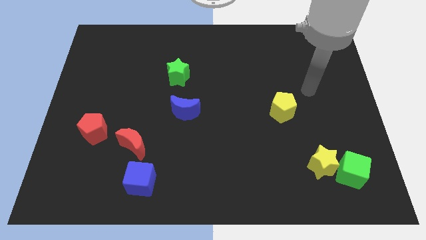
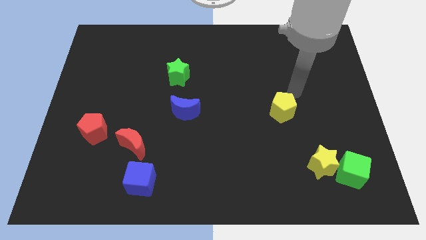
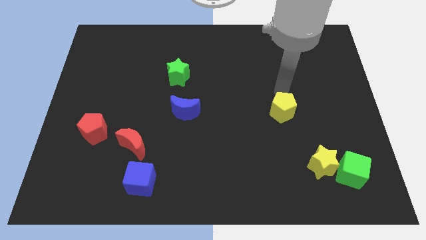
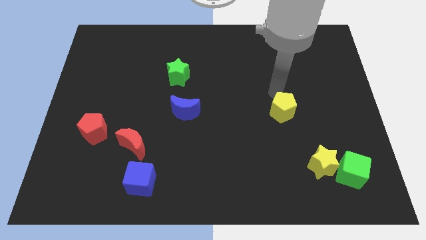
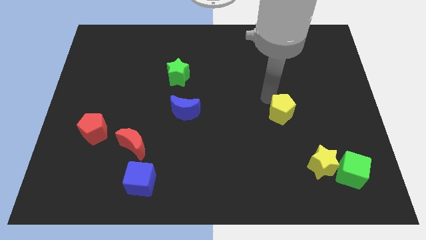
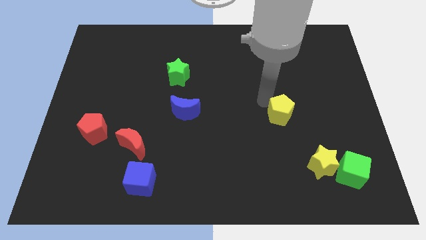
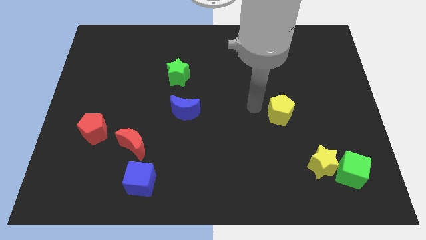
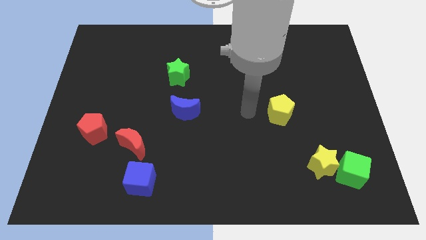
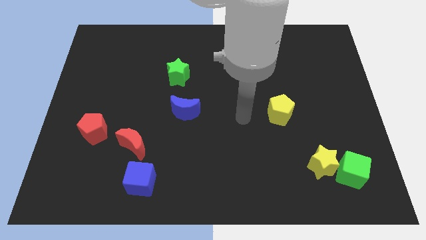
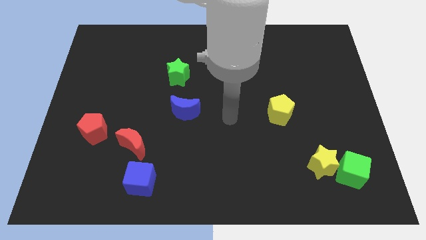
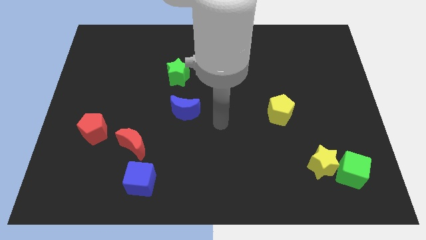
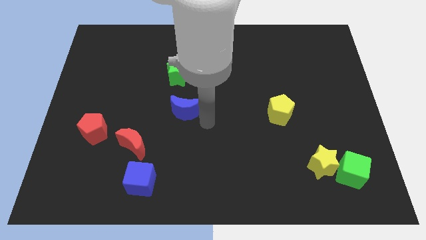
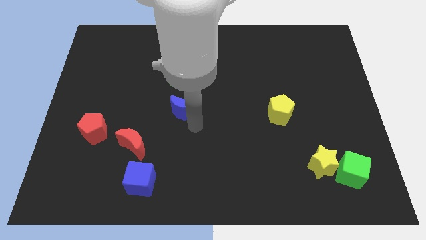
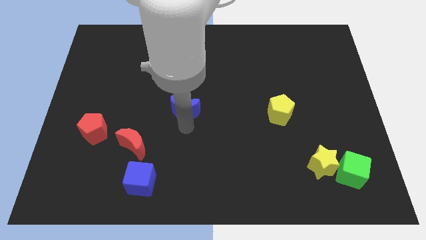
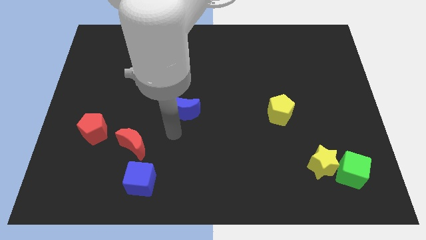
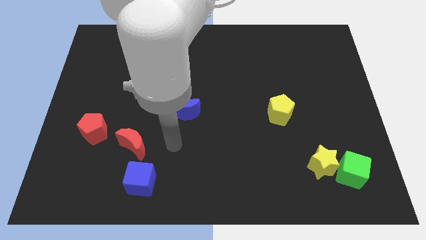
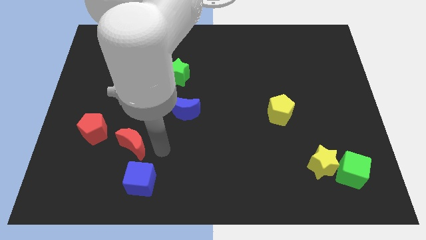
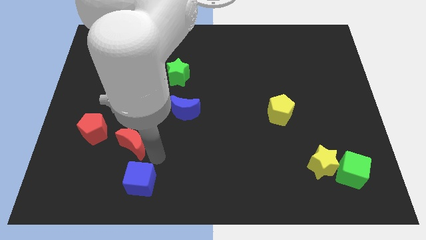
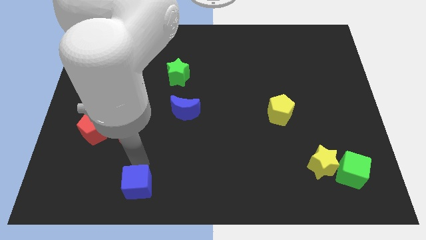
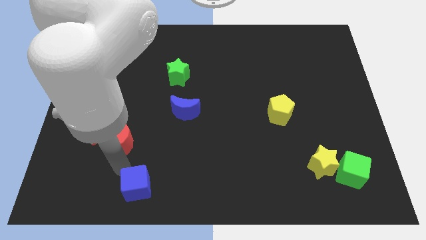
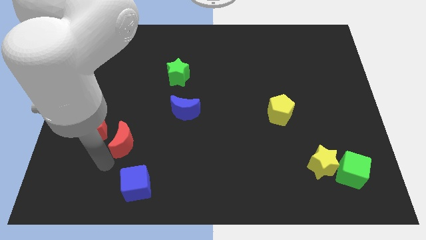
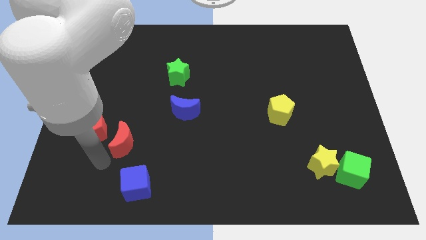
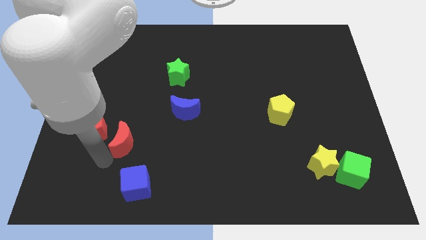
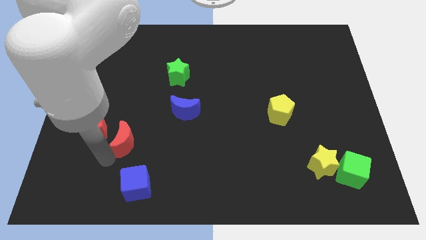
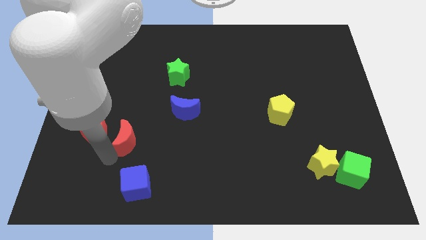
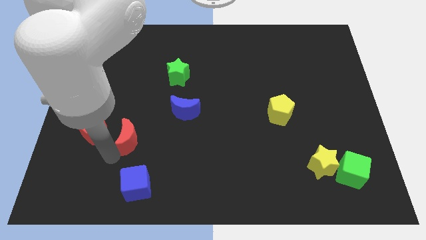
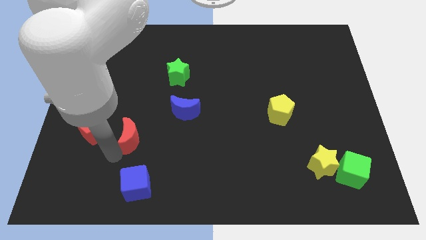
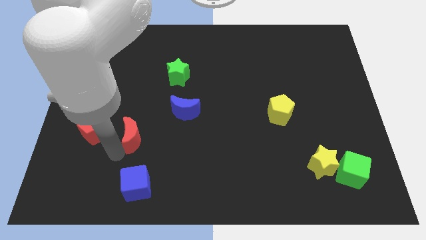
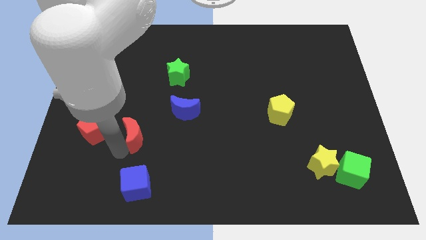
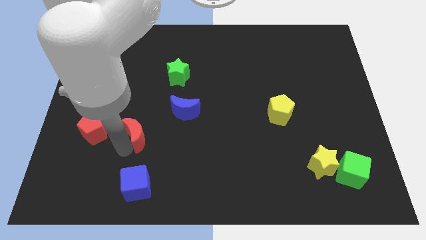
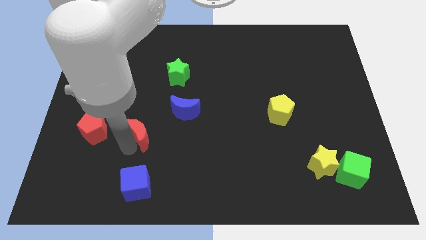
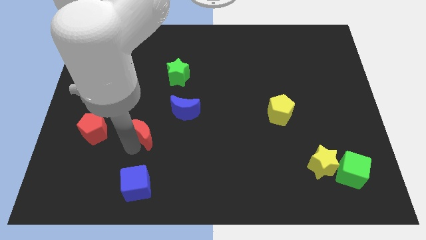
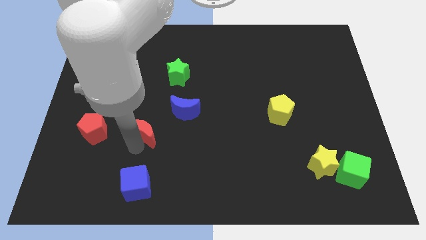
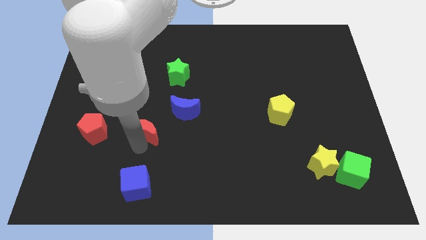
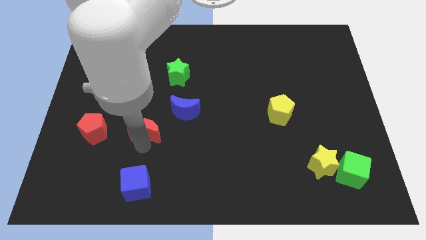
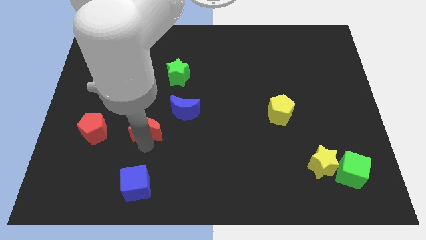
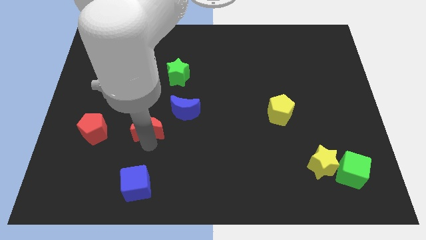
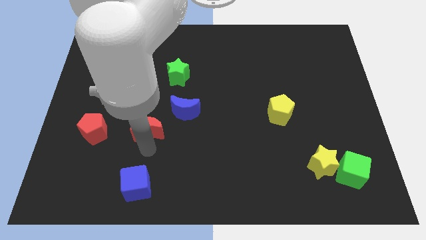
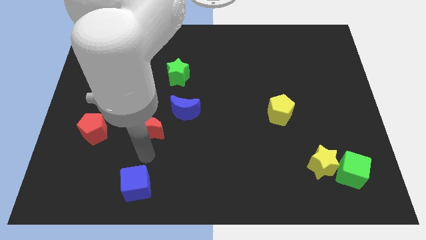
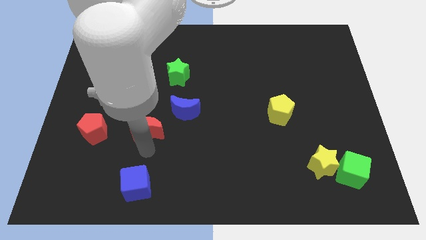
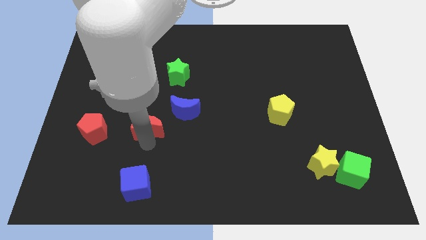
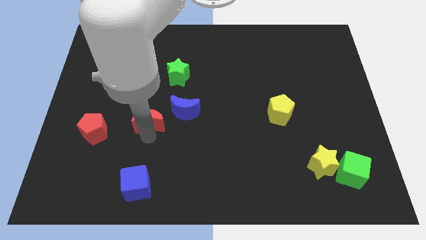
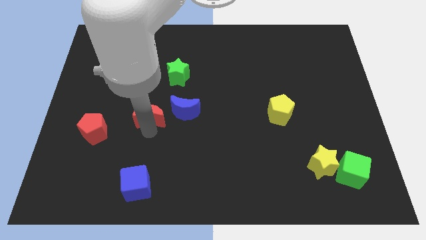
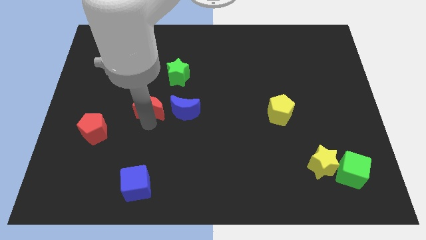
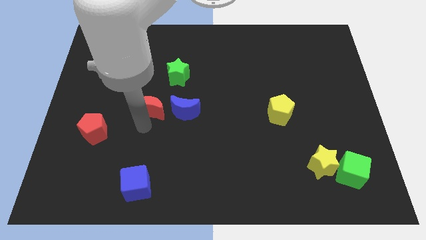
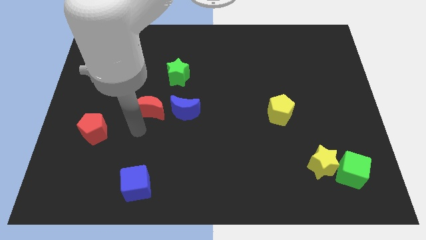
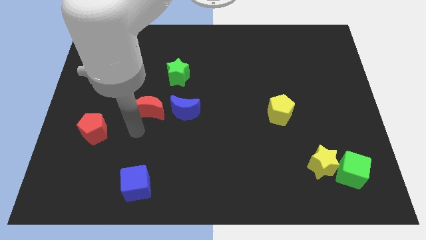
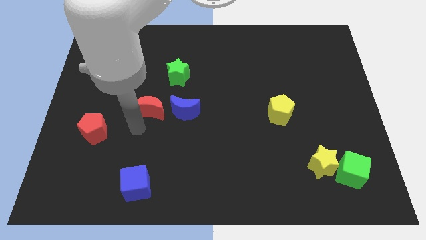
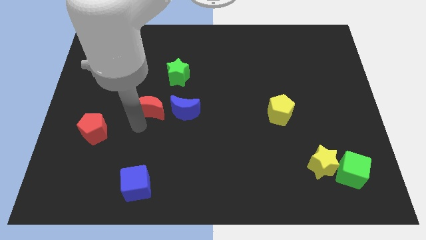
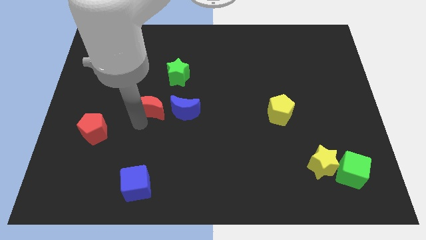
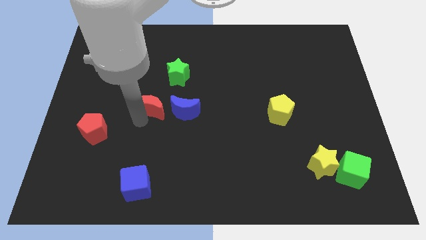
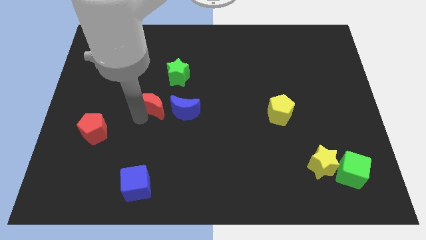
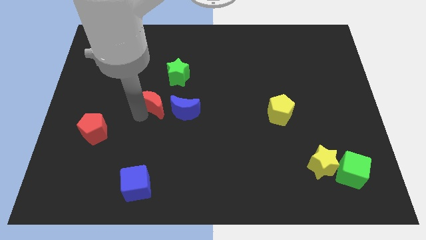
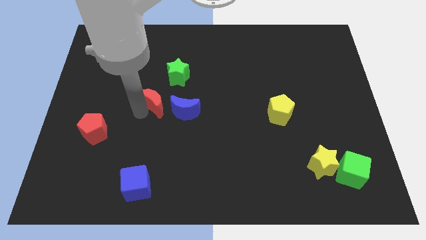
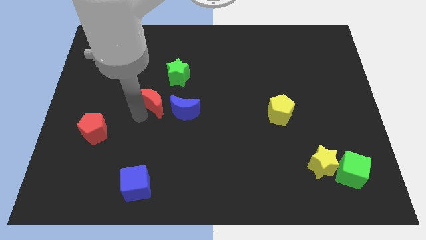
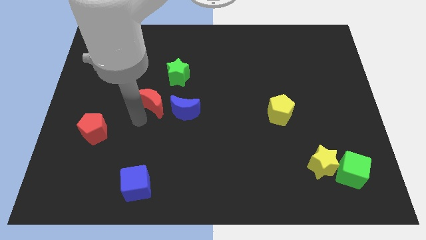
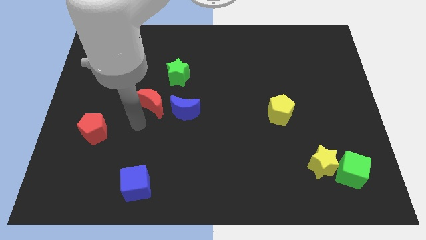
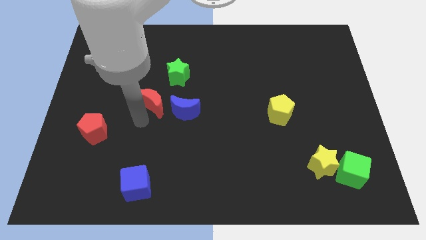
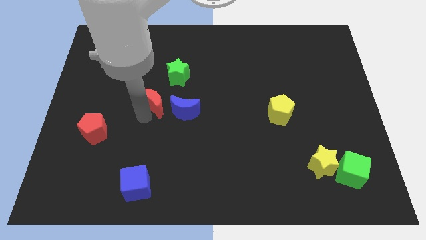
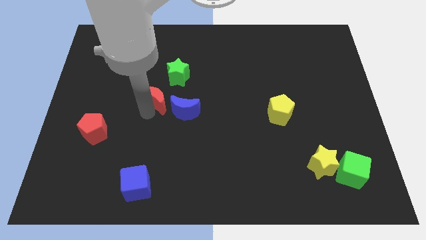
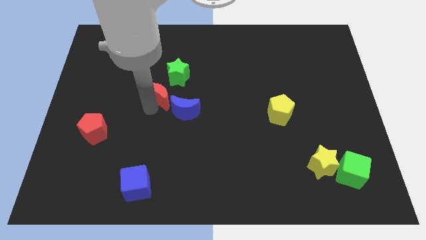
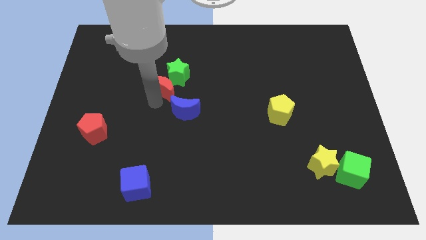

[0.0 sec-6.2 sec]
move the red moon to the green star

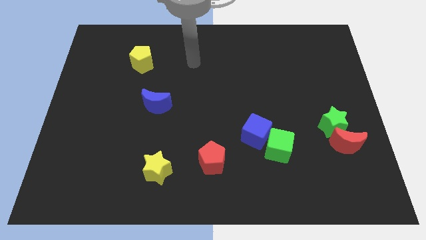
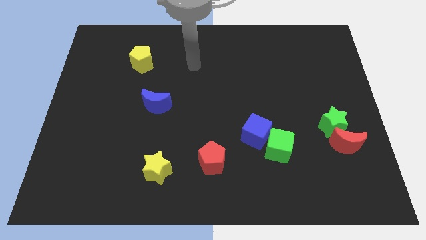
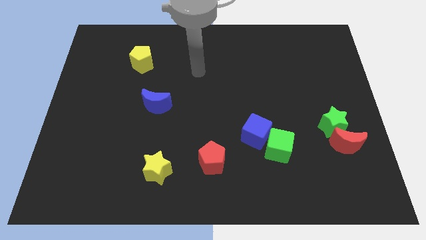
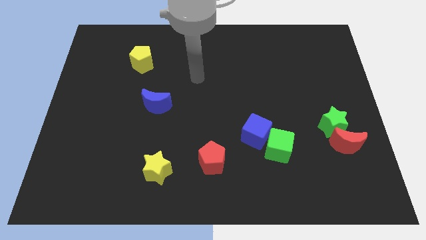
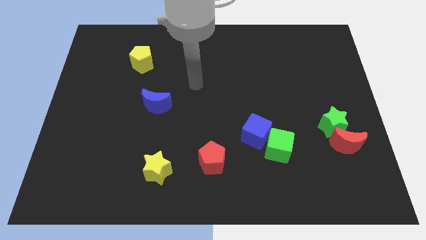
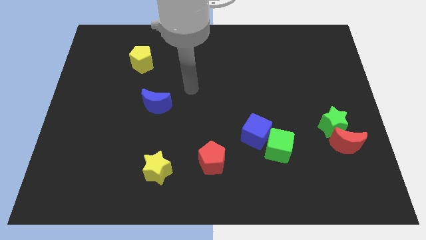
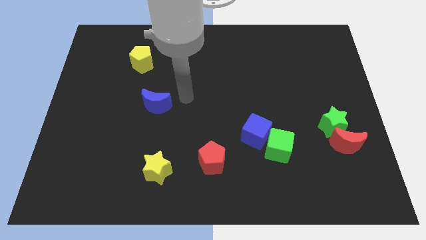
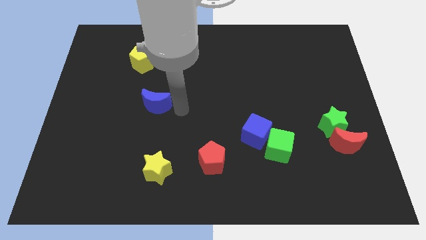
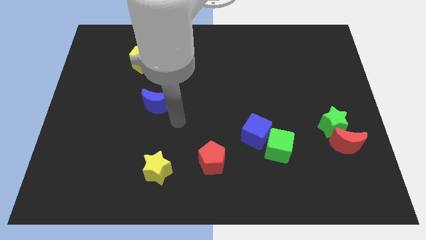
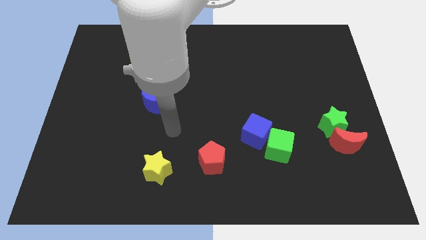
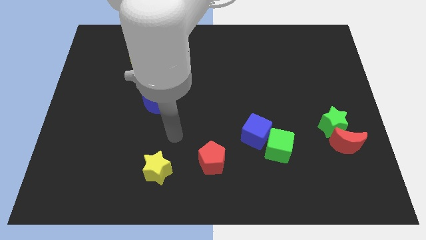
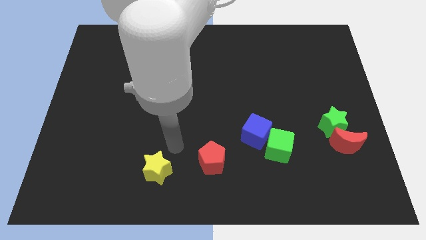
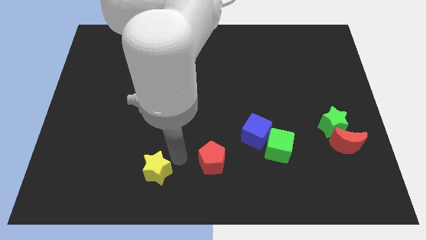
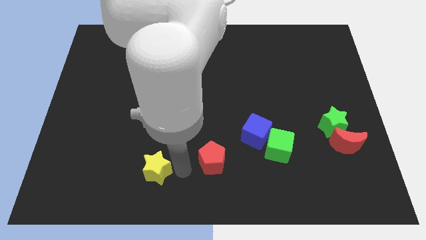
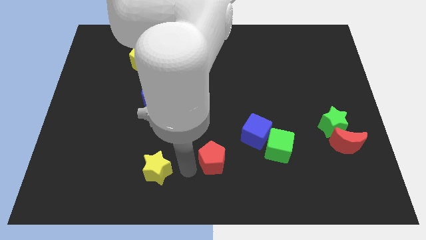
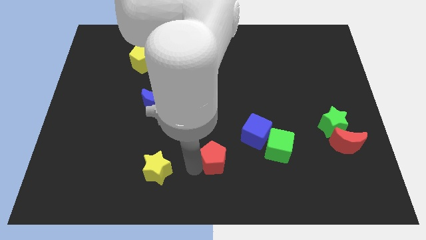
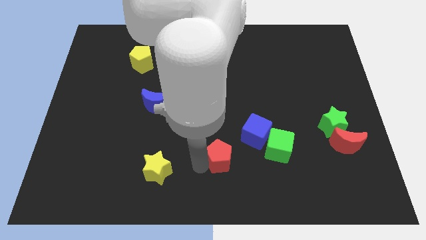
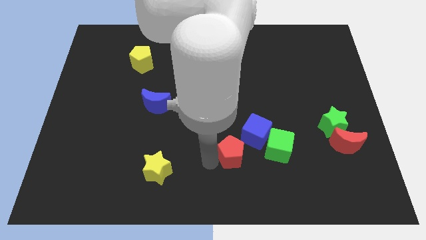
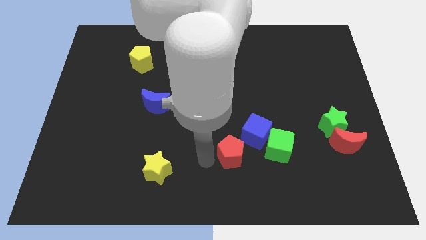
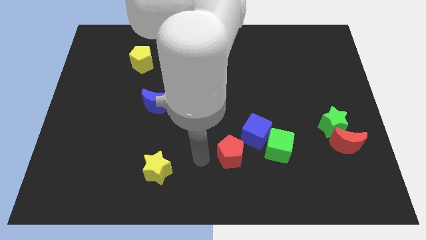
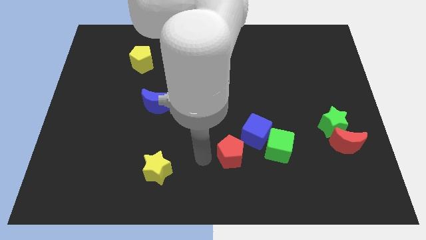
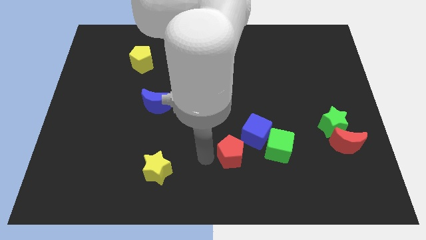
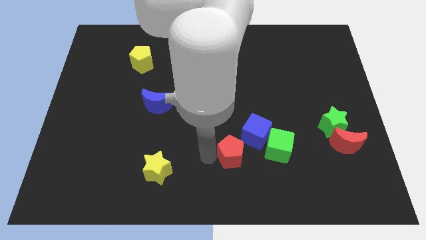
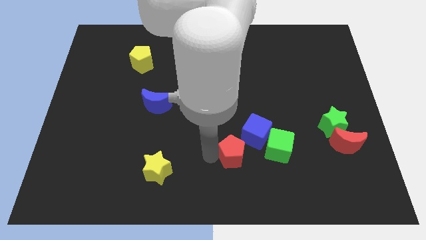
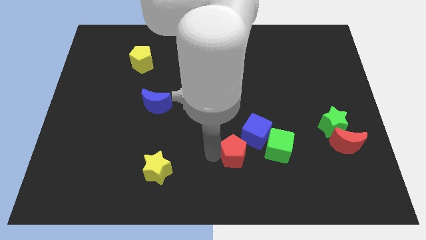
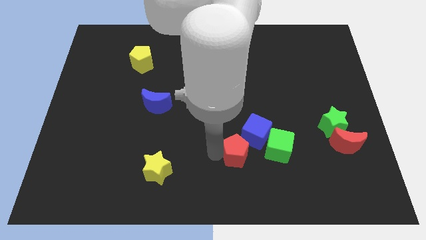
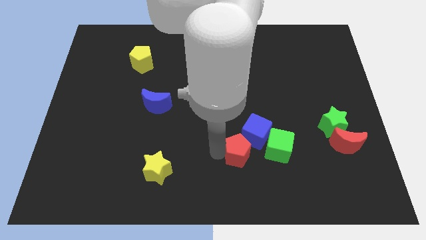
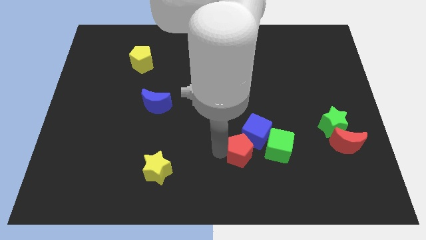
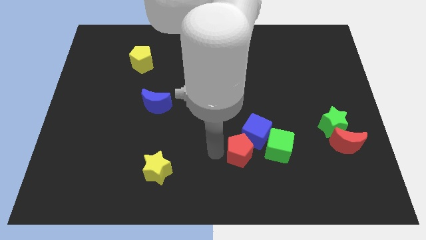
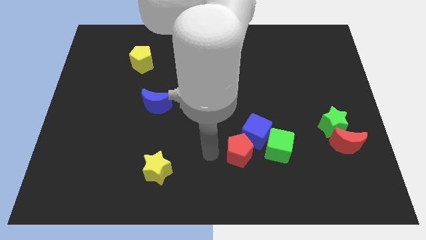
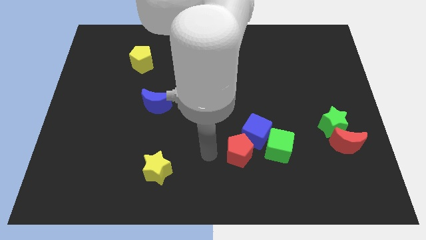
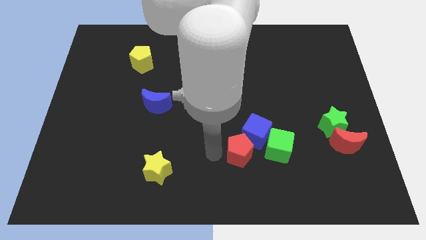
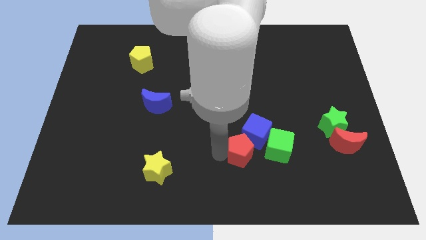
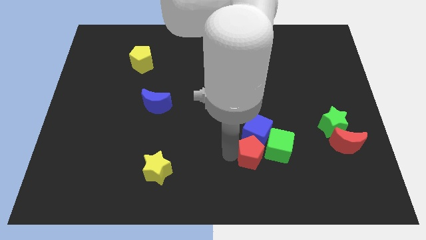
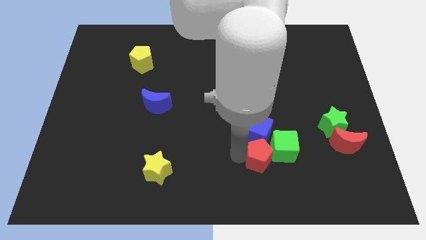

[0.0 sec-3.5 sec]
slide the red pentagon towards the green cube
